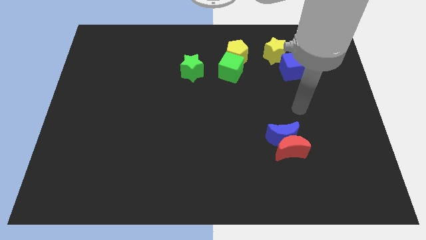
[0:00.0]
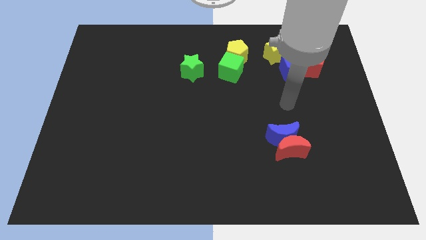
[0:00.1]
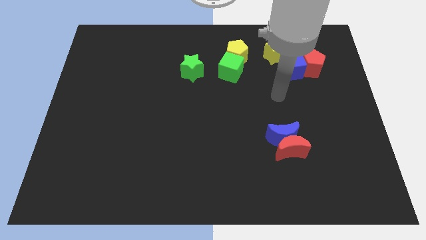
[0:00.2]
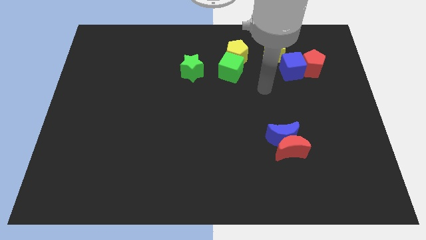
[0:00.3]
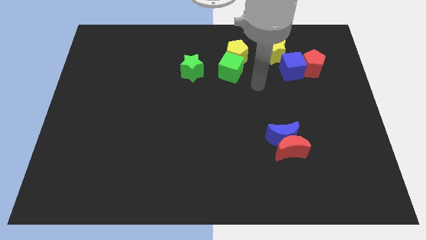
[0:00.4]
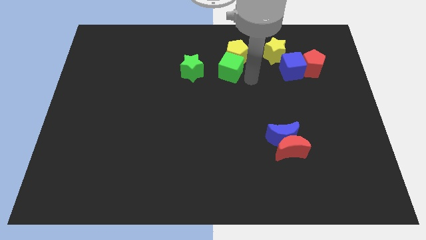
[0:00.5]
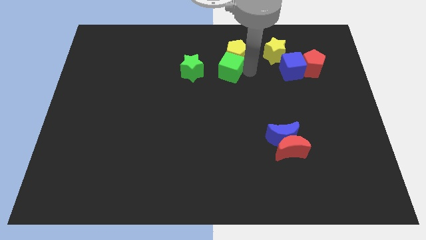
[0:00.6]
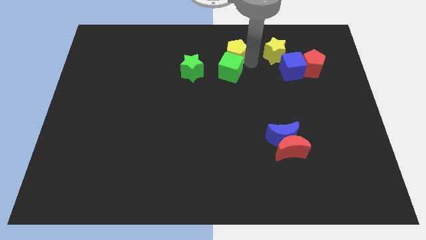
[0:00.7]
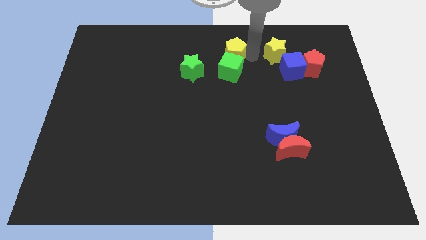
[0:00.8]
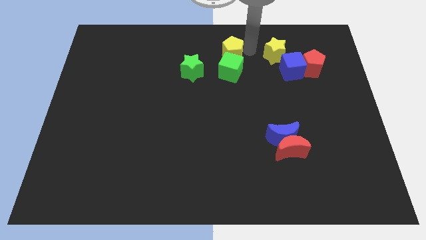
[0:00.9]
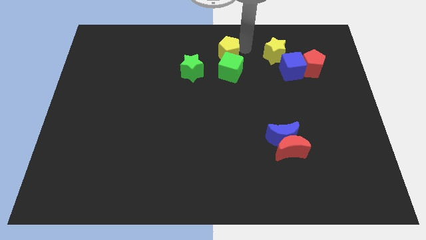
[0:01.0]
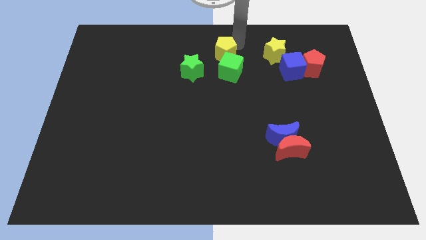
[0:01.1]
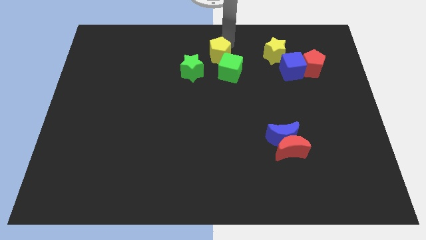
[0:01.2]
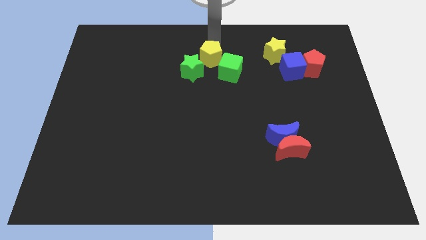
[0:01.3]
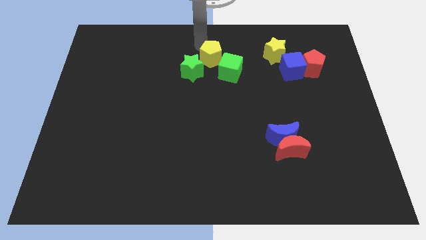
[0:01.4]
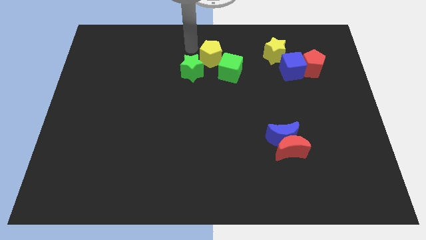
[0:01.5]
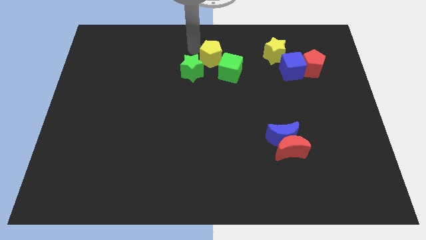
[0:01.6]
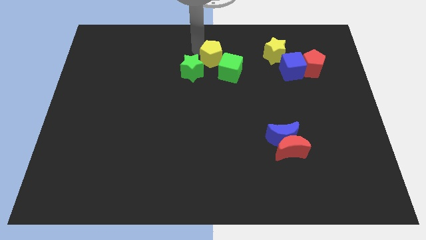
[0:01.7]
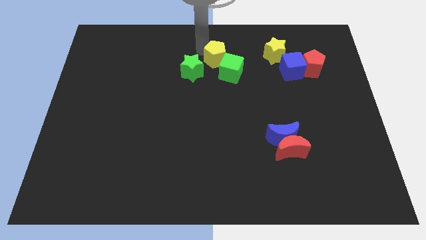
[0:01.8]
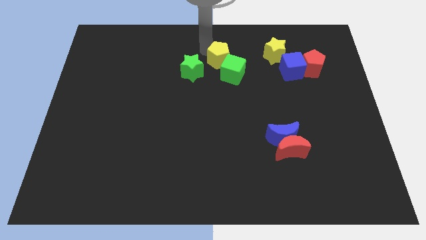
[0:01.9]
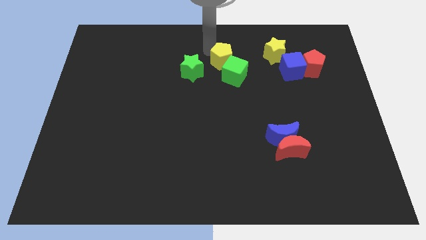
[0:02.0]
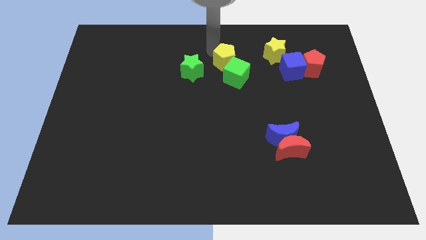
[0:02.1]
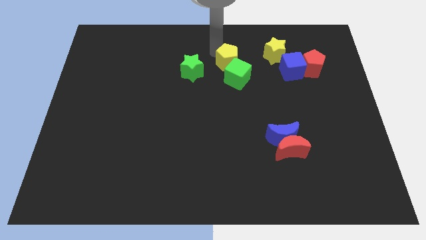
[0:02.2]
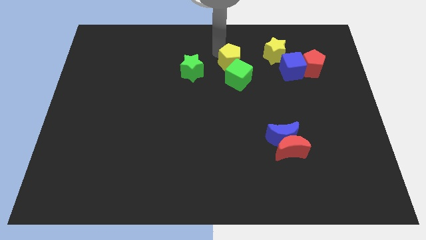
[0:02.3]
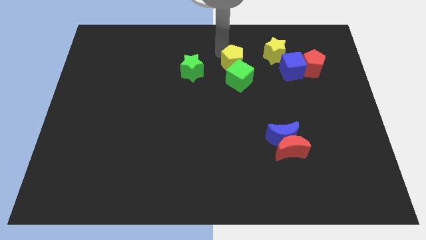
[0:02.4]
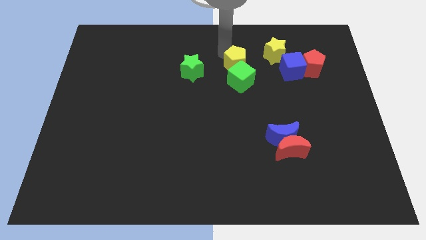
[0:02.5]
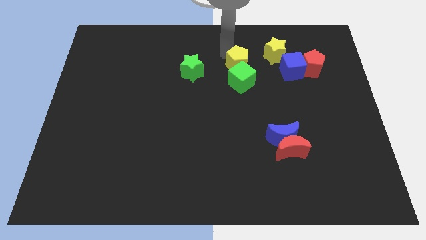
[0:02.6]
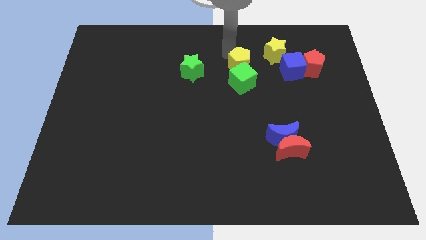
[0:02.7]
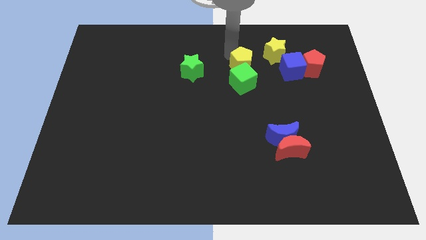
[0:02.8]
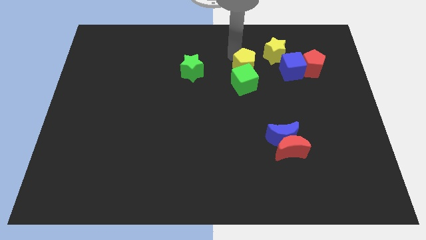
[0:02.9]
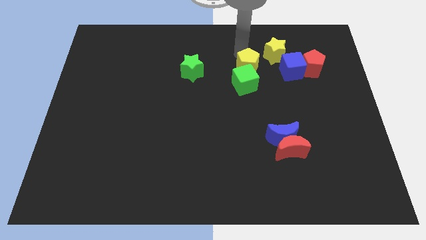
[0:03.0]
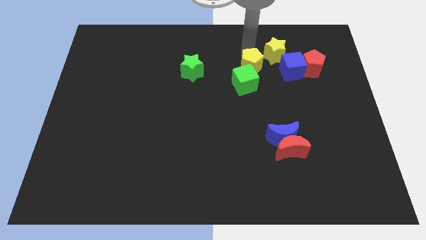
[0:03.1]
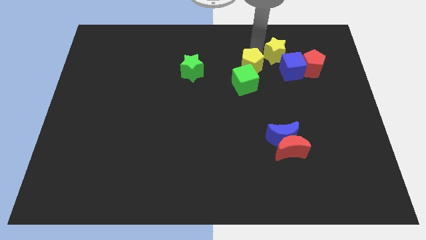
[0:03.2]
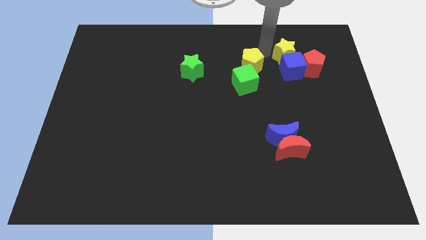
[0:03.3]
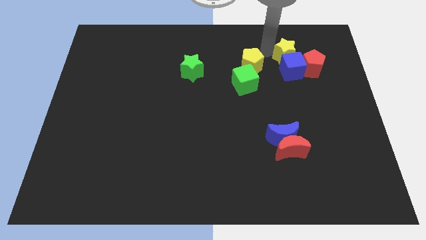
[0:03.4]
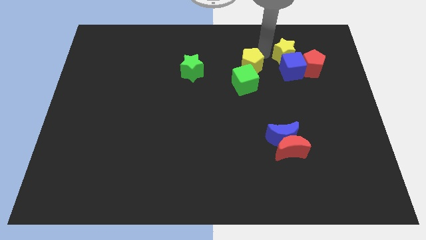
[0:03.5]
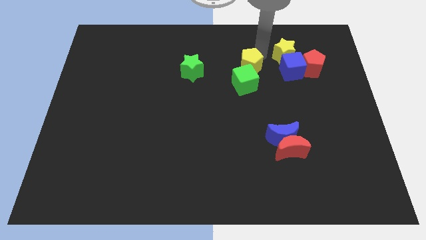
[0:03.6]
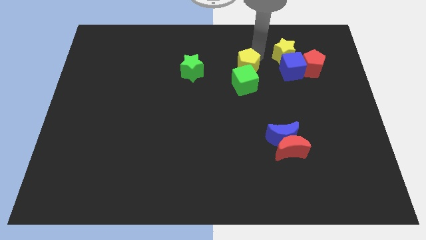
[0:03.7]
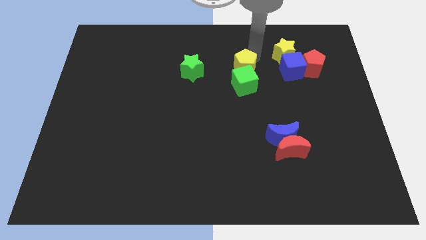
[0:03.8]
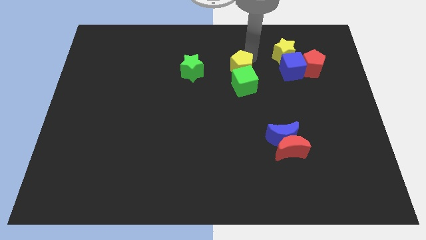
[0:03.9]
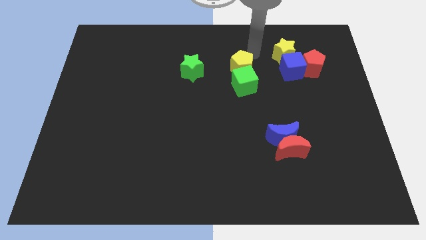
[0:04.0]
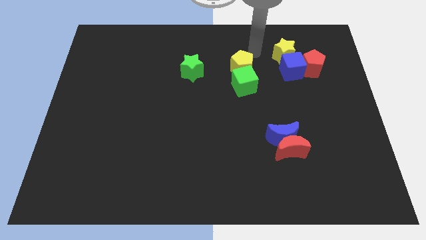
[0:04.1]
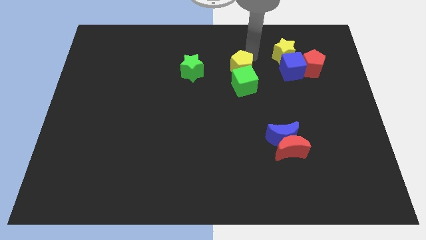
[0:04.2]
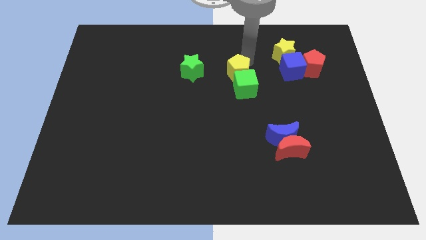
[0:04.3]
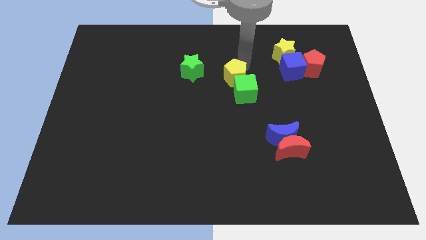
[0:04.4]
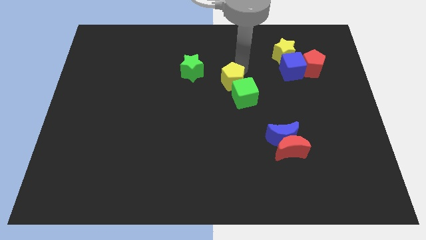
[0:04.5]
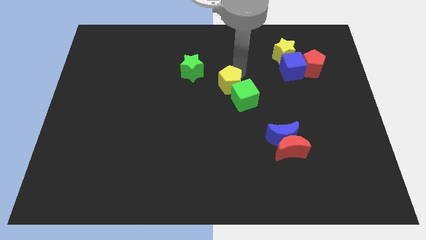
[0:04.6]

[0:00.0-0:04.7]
slightly push the yellow pentagon diagonally down and left

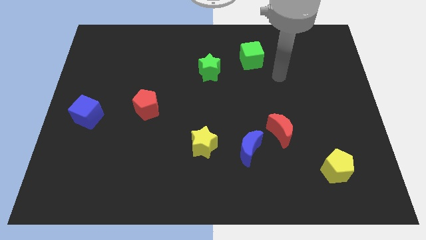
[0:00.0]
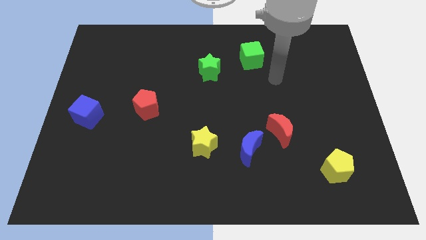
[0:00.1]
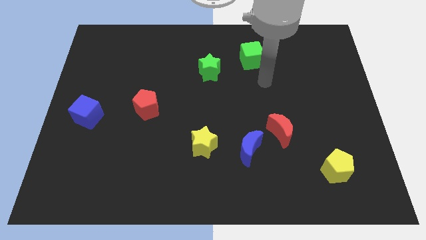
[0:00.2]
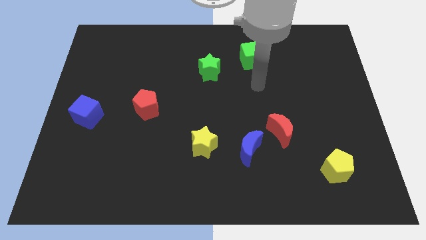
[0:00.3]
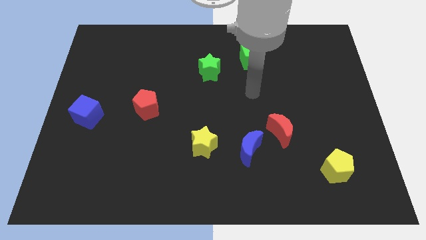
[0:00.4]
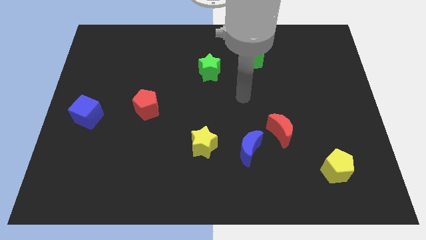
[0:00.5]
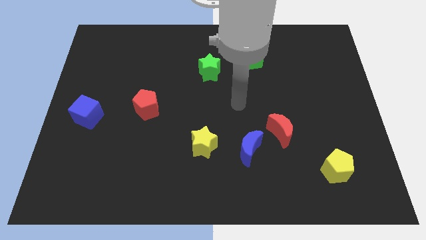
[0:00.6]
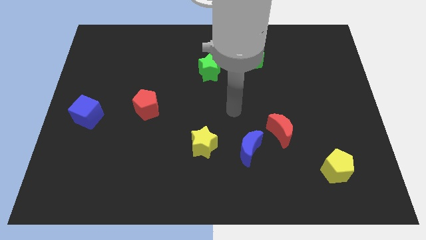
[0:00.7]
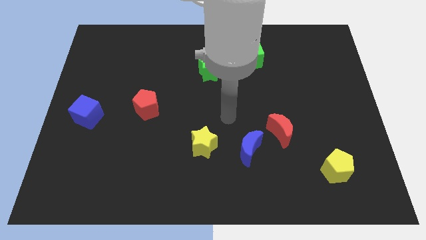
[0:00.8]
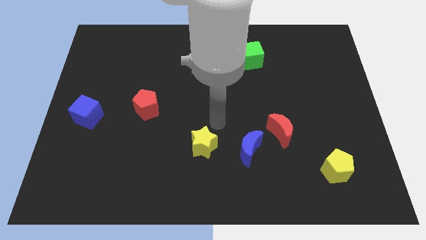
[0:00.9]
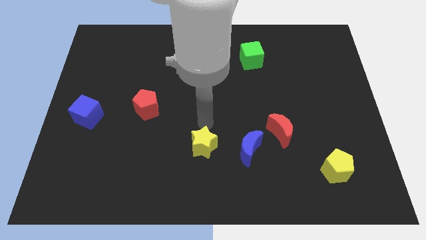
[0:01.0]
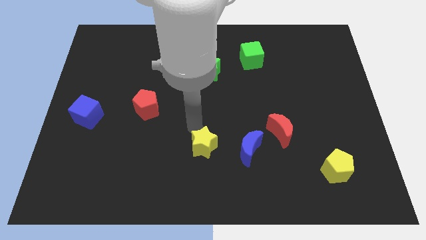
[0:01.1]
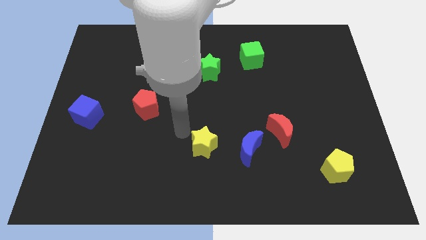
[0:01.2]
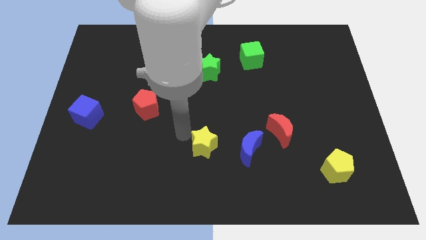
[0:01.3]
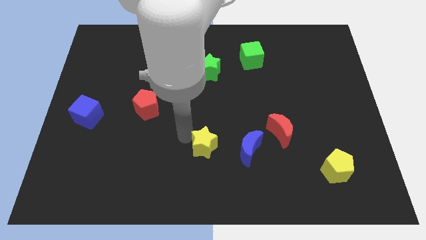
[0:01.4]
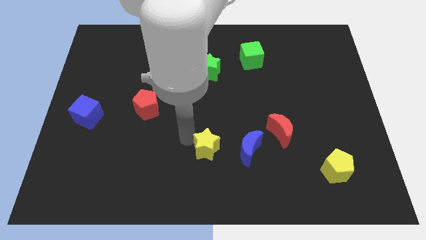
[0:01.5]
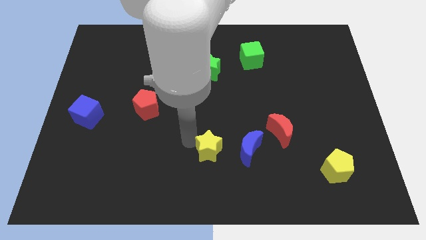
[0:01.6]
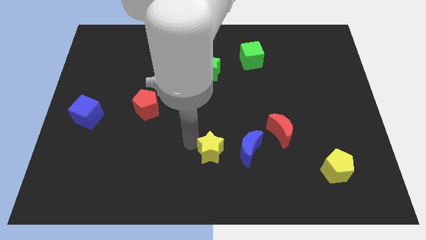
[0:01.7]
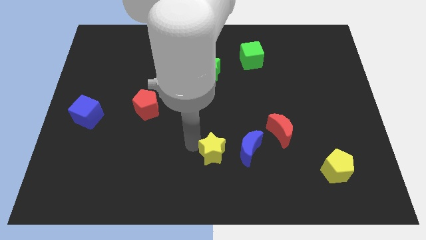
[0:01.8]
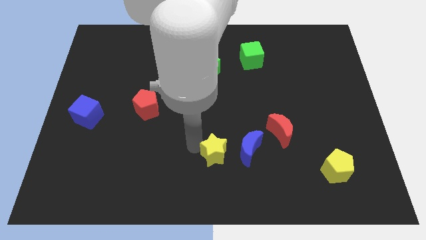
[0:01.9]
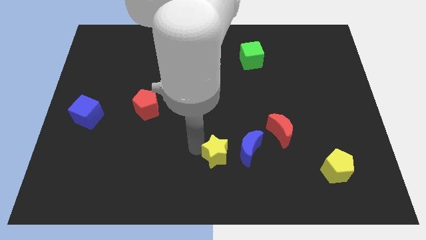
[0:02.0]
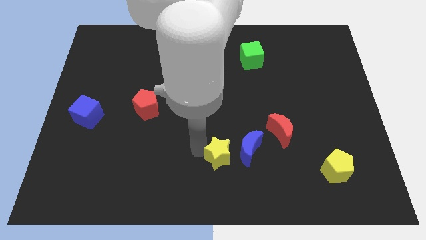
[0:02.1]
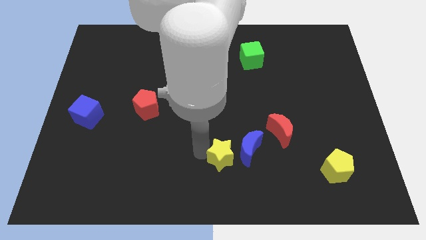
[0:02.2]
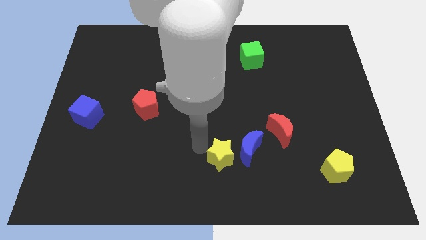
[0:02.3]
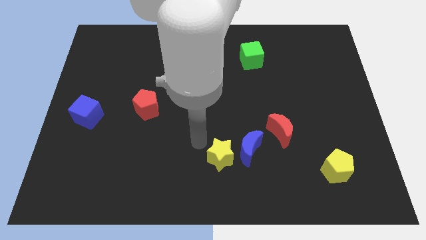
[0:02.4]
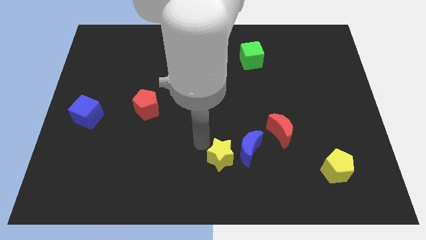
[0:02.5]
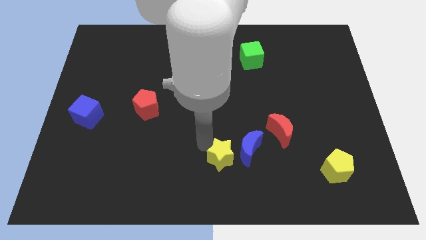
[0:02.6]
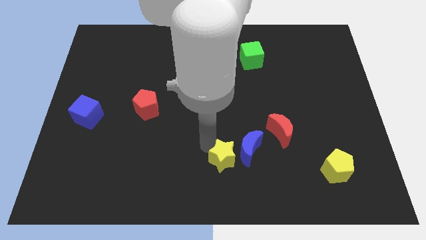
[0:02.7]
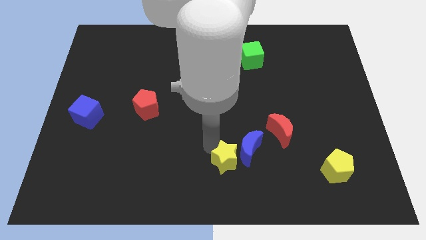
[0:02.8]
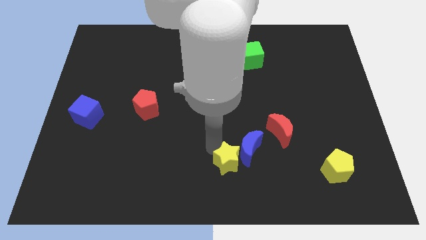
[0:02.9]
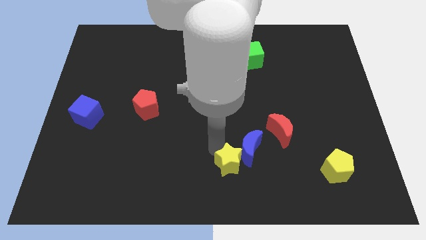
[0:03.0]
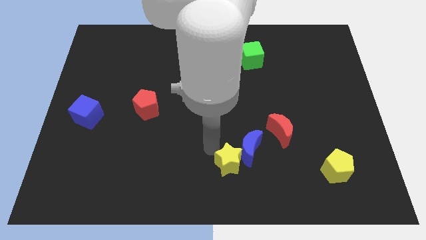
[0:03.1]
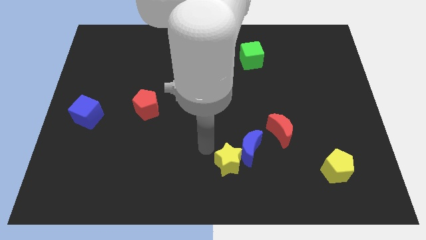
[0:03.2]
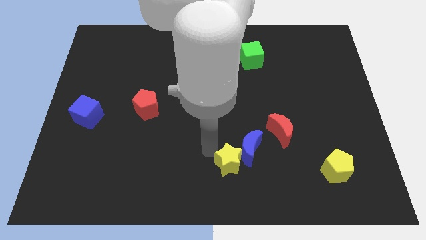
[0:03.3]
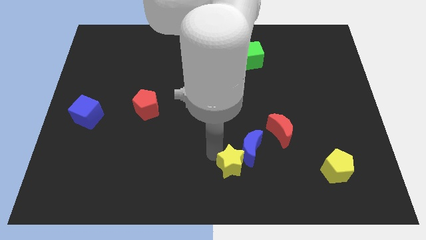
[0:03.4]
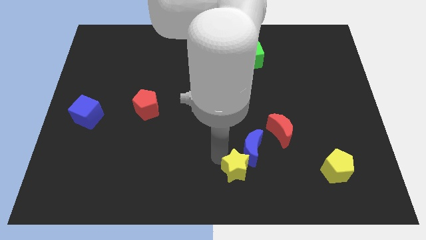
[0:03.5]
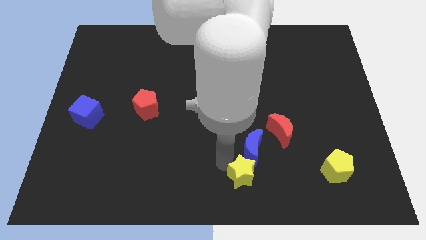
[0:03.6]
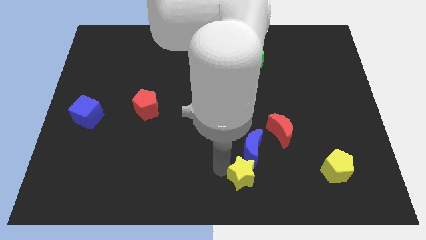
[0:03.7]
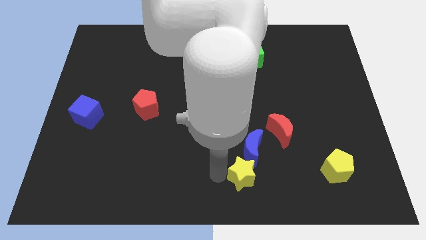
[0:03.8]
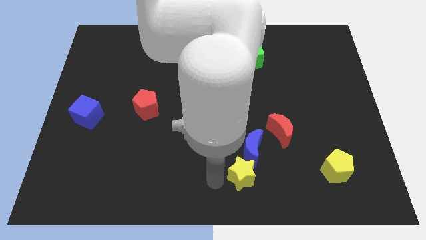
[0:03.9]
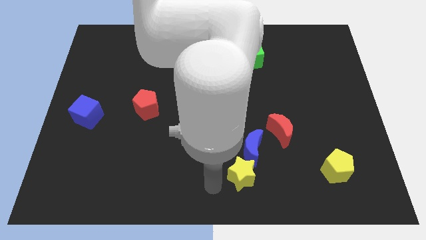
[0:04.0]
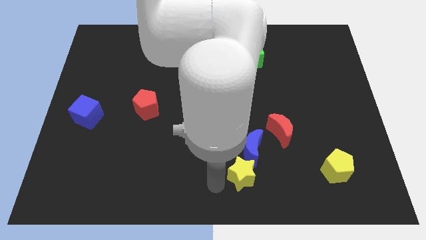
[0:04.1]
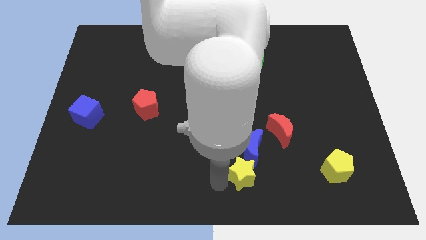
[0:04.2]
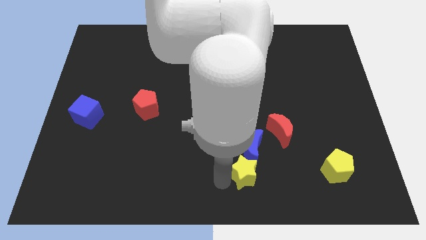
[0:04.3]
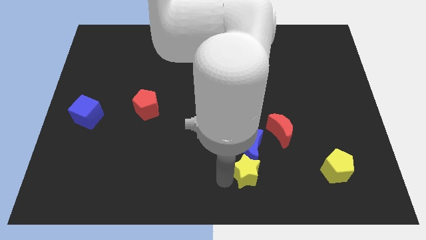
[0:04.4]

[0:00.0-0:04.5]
move the yellow star a little bit right
